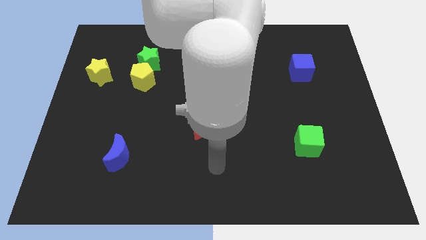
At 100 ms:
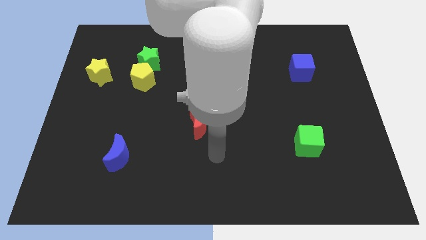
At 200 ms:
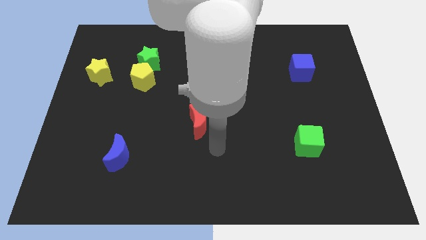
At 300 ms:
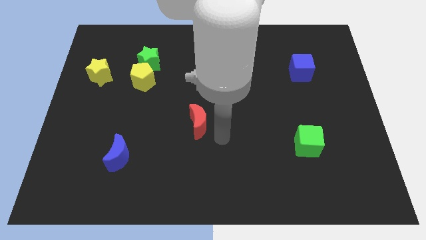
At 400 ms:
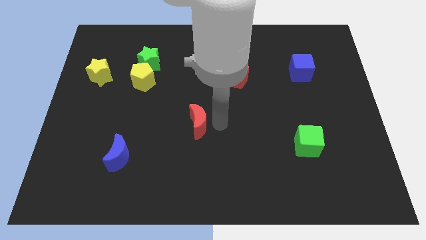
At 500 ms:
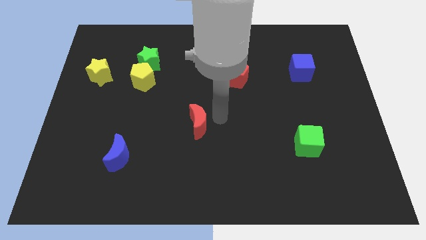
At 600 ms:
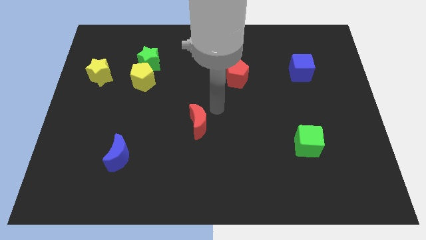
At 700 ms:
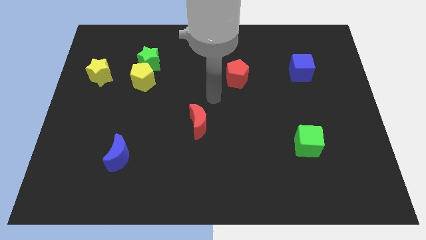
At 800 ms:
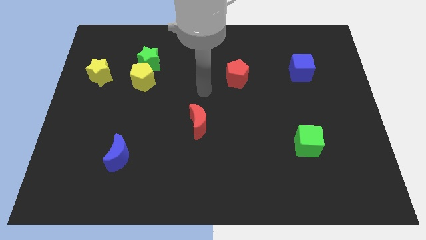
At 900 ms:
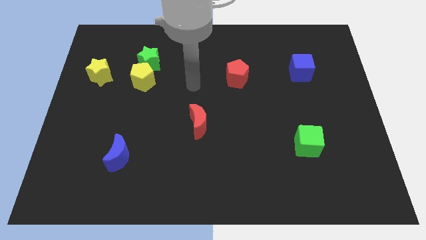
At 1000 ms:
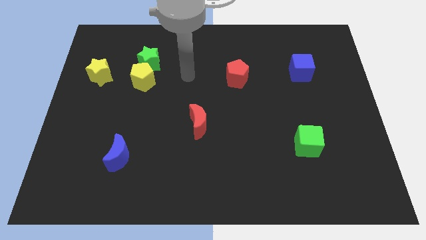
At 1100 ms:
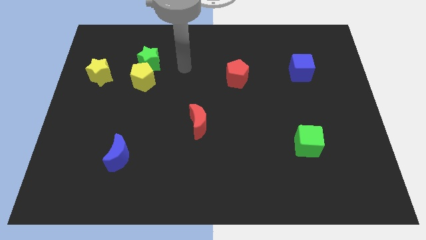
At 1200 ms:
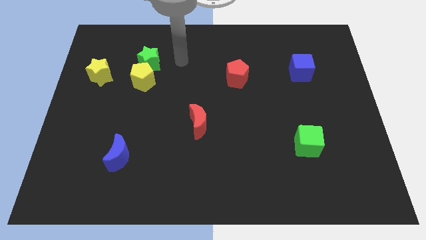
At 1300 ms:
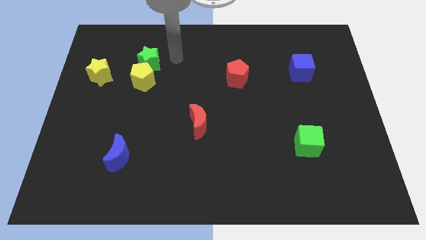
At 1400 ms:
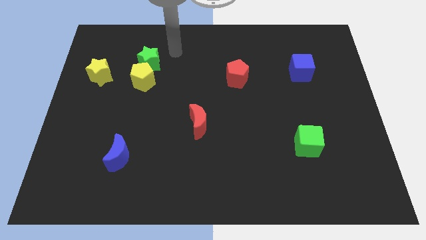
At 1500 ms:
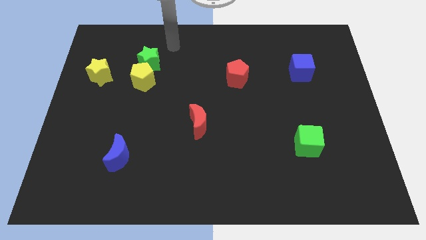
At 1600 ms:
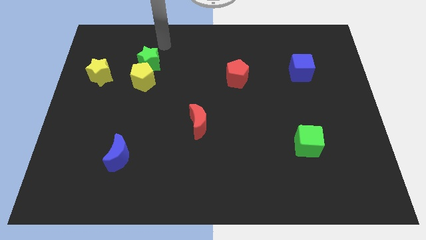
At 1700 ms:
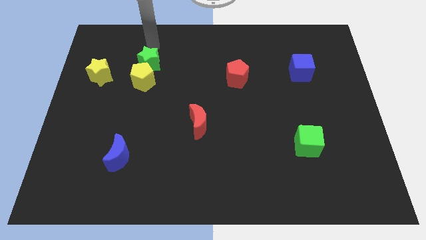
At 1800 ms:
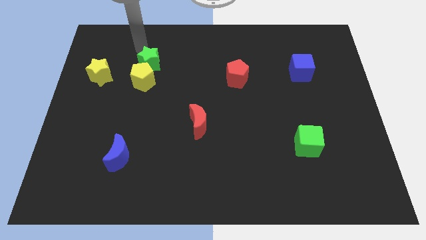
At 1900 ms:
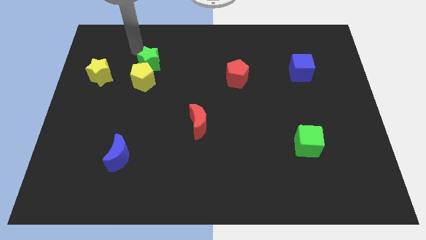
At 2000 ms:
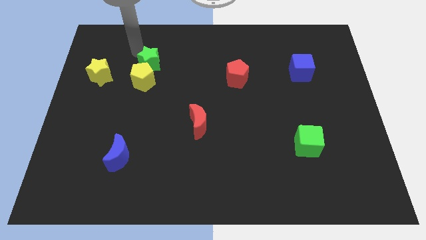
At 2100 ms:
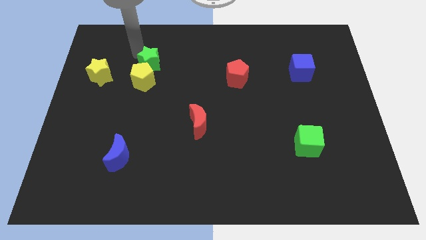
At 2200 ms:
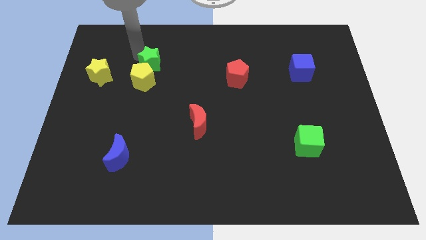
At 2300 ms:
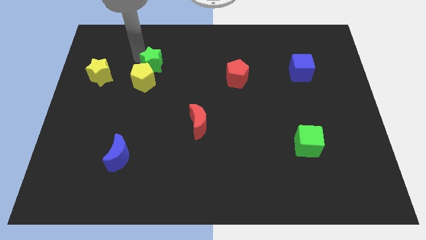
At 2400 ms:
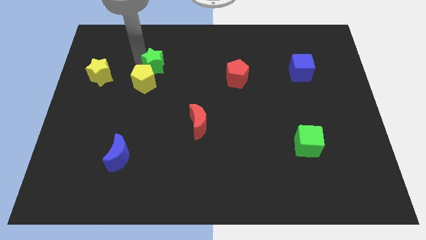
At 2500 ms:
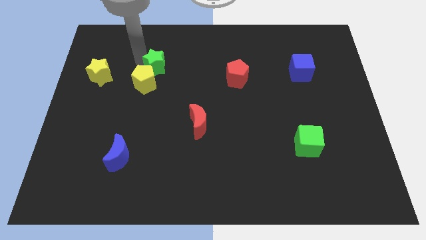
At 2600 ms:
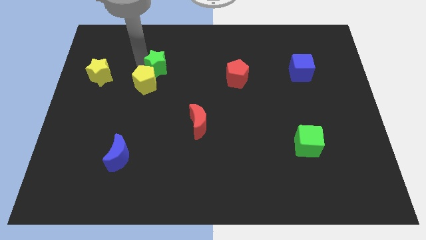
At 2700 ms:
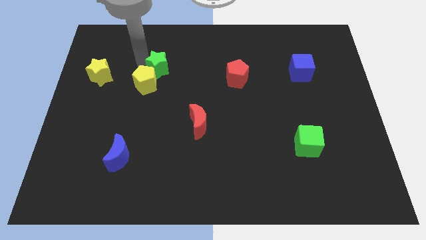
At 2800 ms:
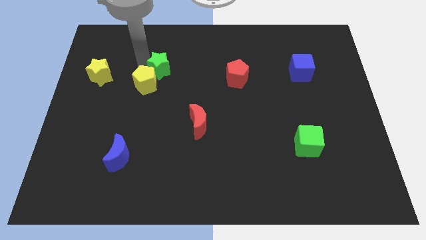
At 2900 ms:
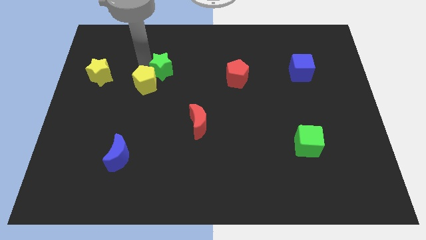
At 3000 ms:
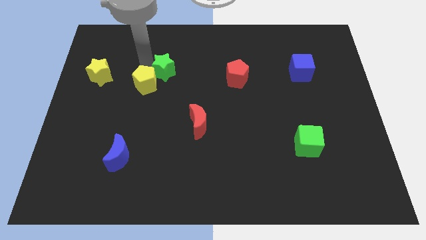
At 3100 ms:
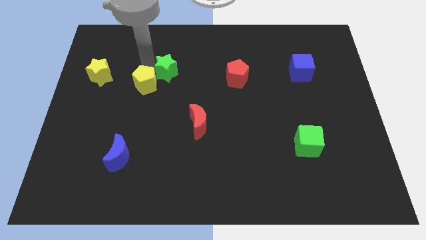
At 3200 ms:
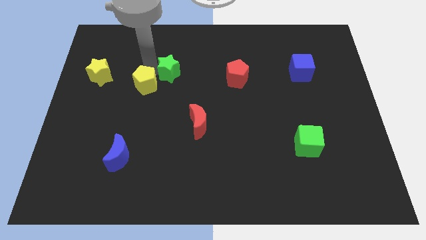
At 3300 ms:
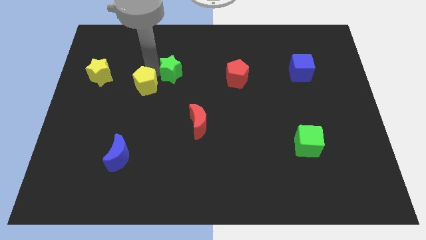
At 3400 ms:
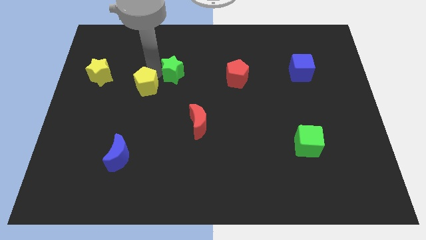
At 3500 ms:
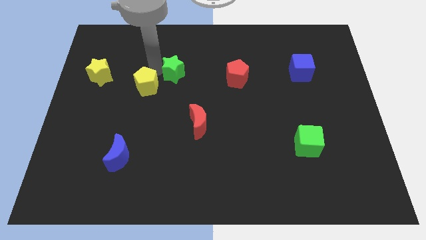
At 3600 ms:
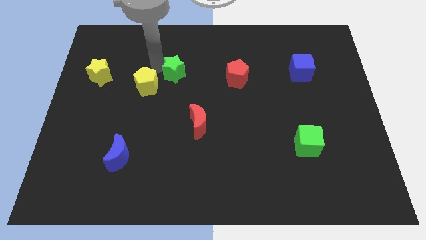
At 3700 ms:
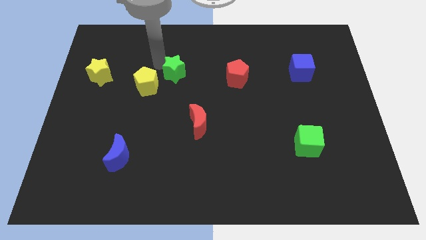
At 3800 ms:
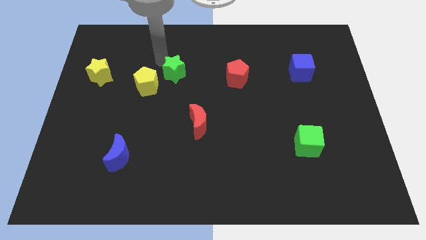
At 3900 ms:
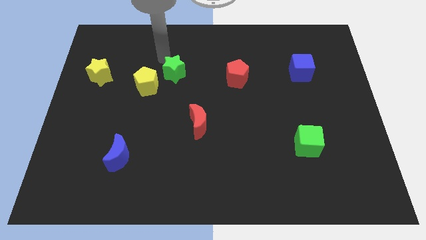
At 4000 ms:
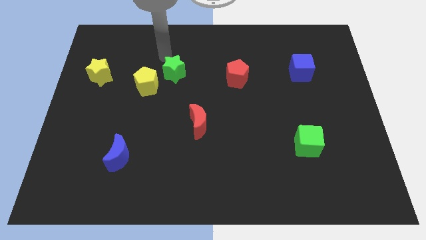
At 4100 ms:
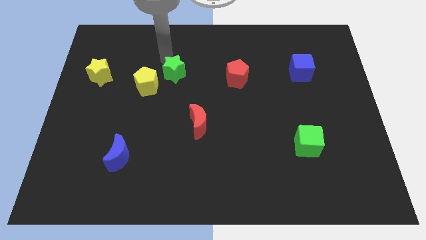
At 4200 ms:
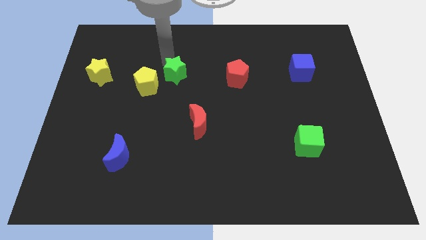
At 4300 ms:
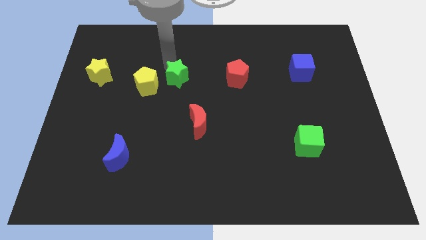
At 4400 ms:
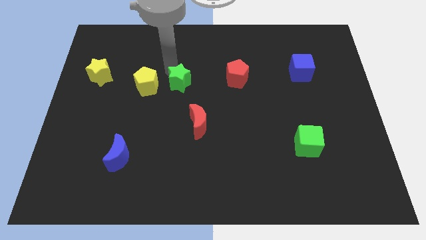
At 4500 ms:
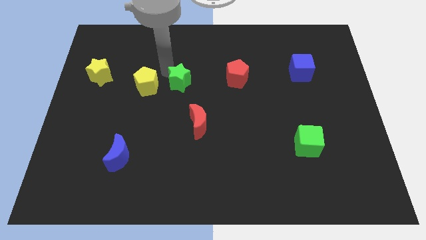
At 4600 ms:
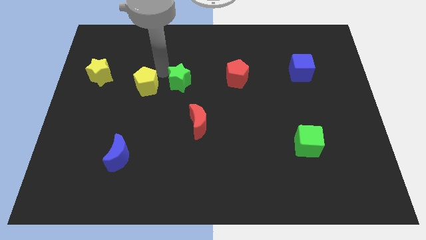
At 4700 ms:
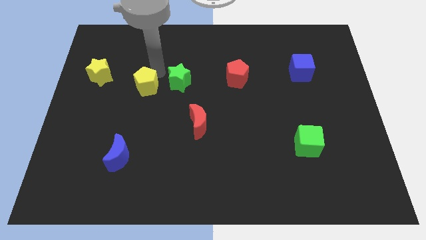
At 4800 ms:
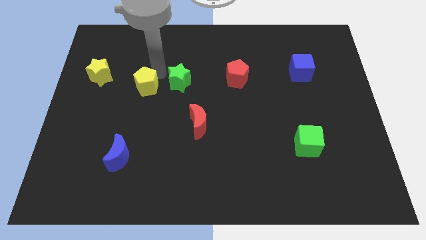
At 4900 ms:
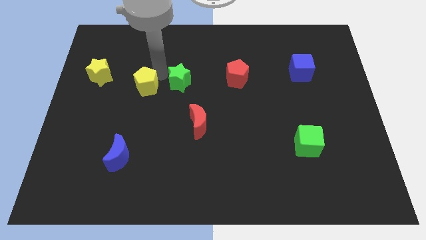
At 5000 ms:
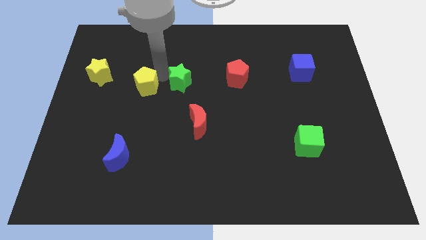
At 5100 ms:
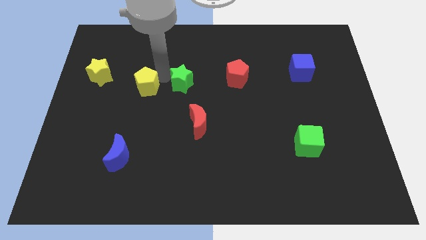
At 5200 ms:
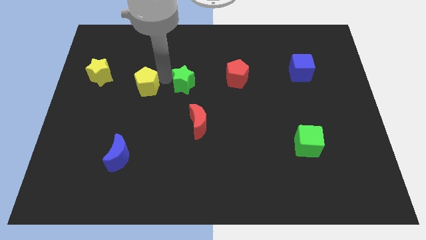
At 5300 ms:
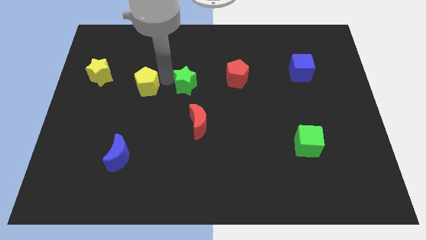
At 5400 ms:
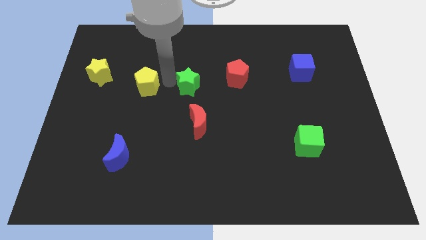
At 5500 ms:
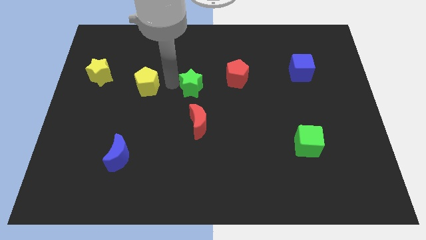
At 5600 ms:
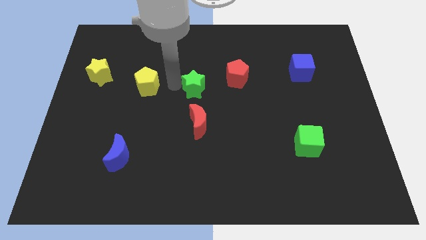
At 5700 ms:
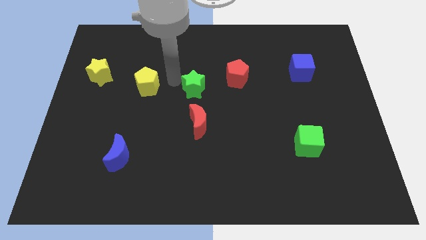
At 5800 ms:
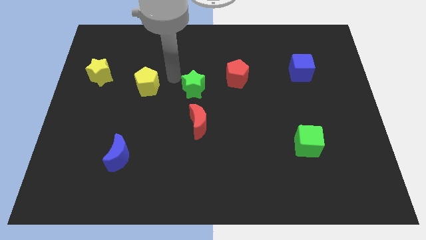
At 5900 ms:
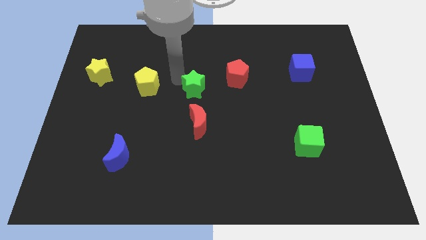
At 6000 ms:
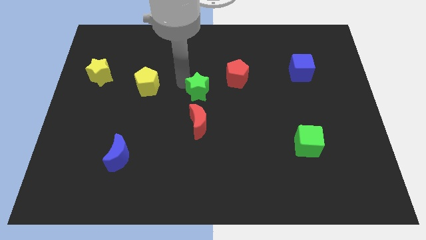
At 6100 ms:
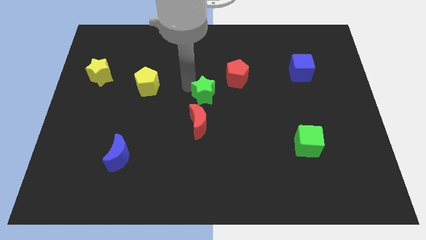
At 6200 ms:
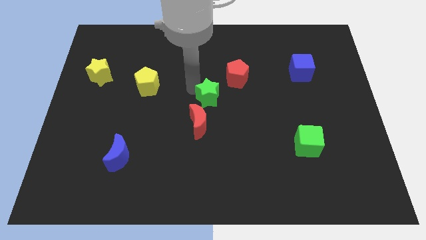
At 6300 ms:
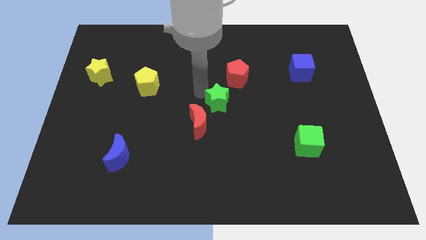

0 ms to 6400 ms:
slide the green star down and to the right

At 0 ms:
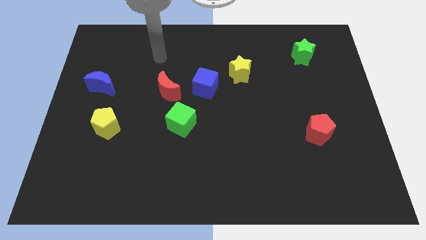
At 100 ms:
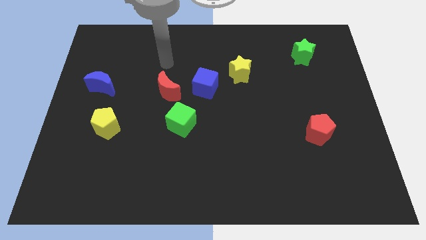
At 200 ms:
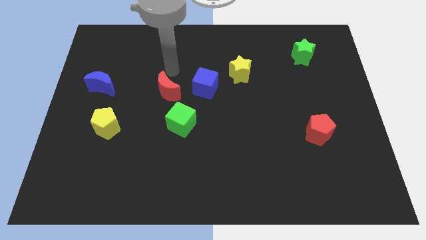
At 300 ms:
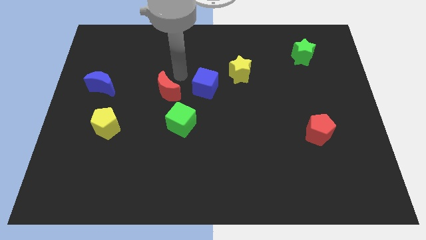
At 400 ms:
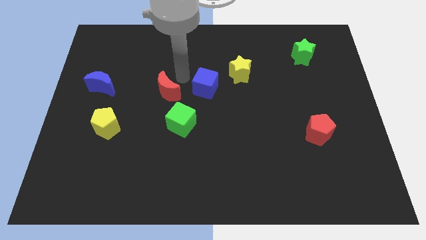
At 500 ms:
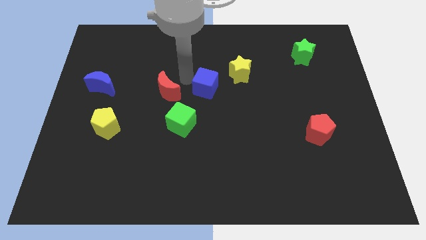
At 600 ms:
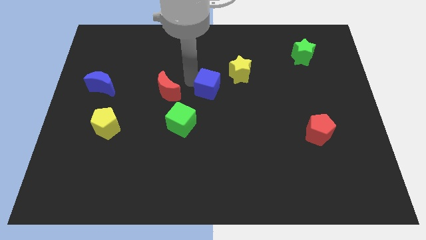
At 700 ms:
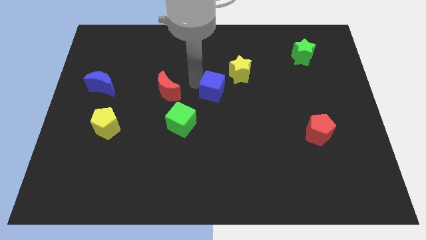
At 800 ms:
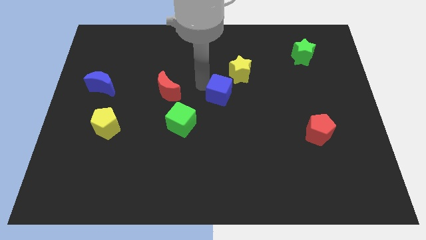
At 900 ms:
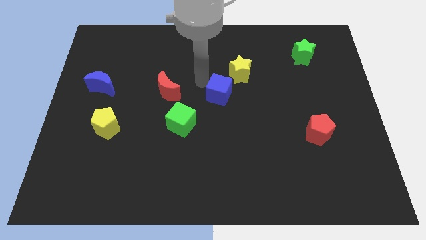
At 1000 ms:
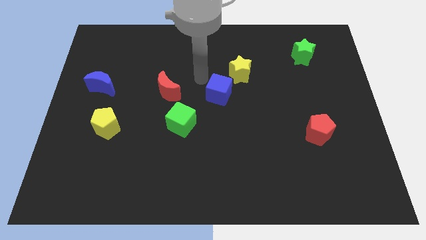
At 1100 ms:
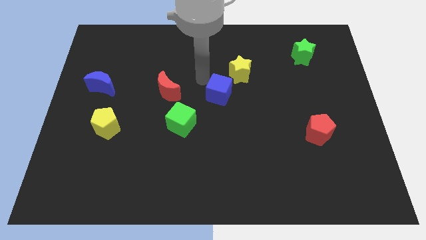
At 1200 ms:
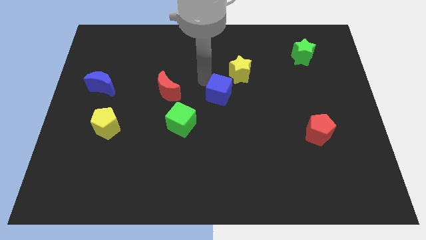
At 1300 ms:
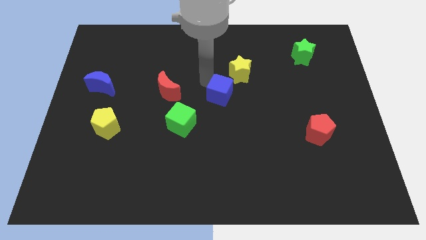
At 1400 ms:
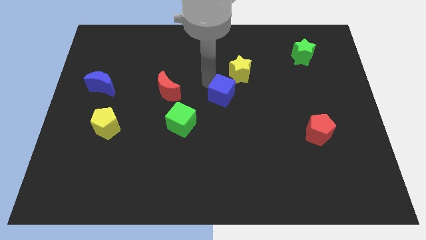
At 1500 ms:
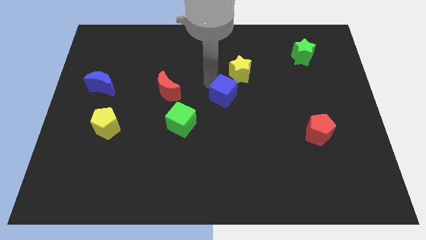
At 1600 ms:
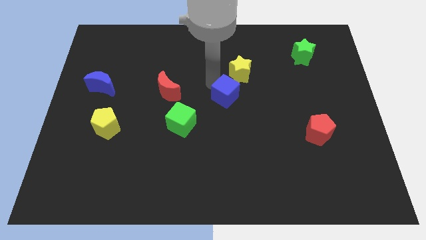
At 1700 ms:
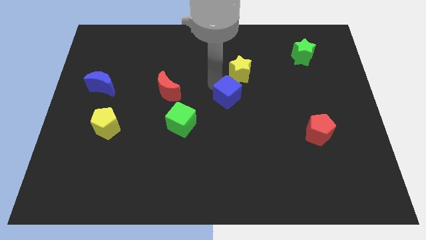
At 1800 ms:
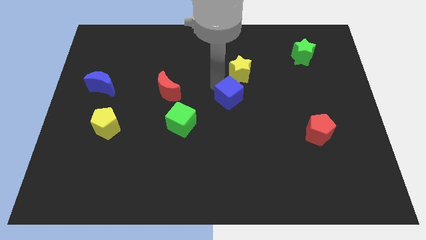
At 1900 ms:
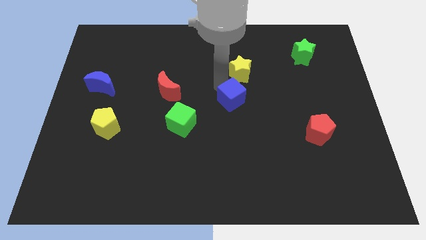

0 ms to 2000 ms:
slide the blue cube diagonally down and right a bit
